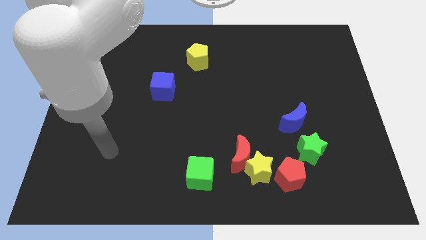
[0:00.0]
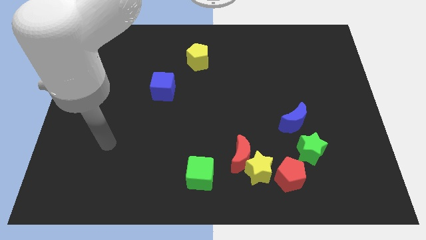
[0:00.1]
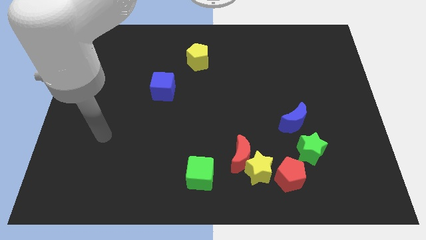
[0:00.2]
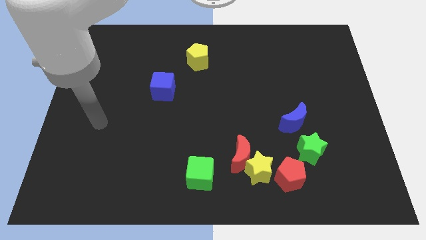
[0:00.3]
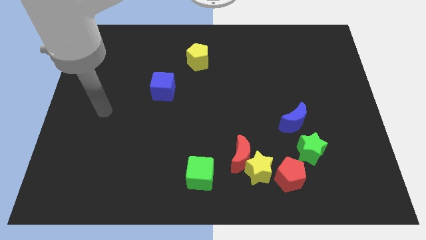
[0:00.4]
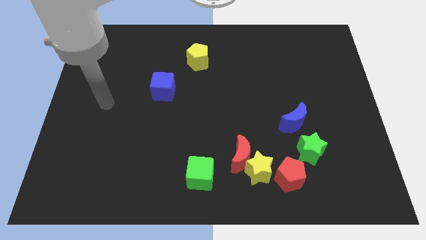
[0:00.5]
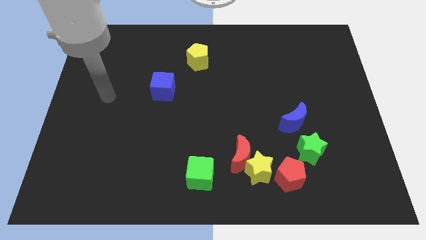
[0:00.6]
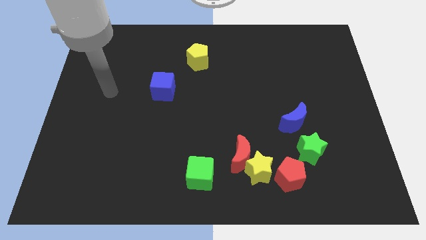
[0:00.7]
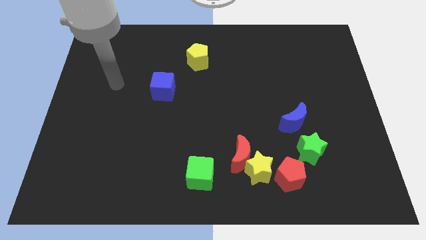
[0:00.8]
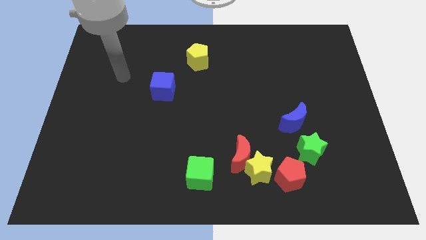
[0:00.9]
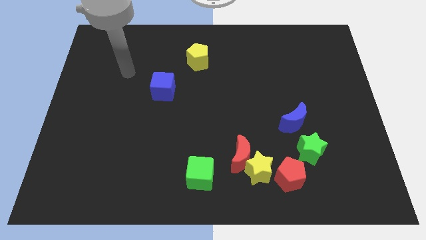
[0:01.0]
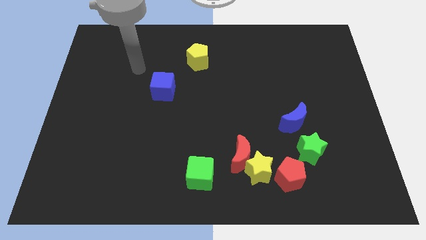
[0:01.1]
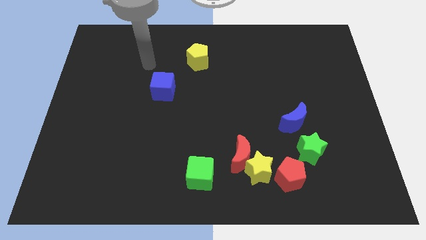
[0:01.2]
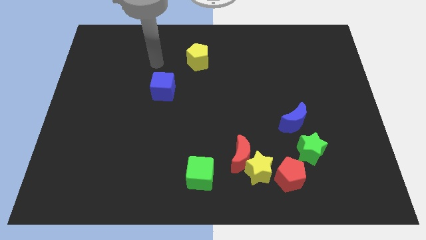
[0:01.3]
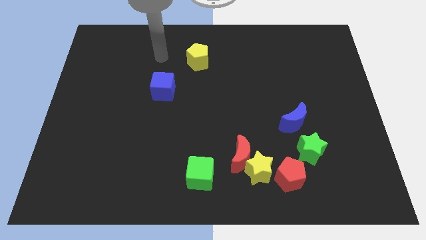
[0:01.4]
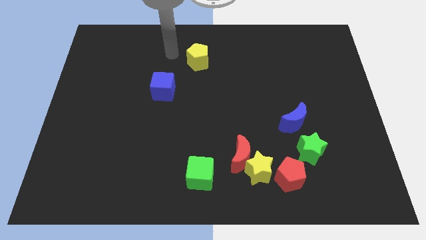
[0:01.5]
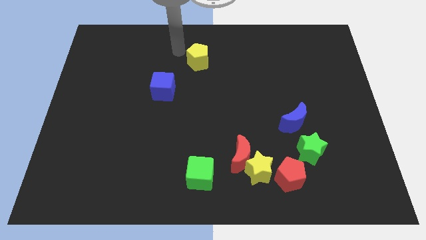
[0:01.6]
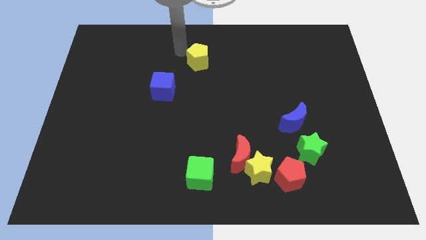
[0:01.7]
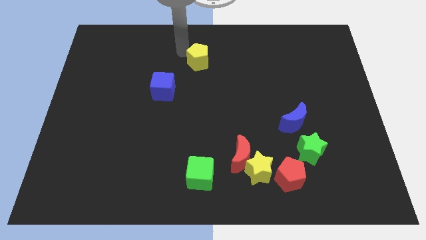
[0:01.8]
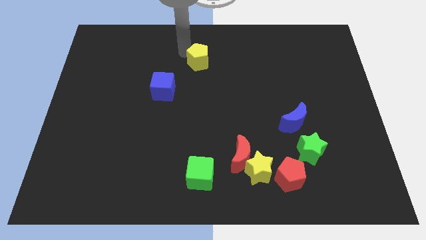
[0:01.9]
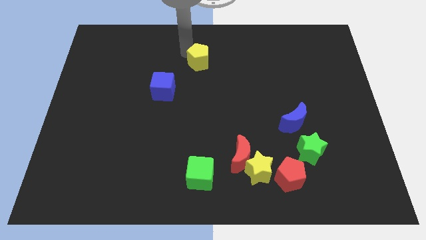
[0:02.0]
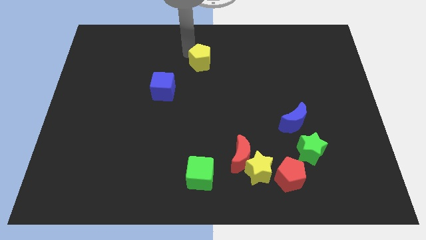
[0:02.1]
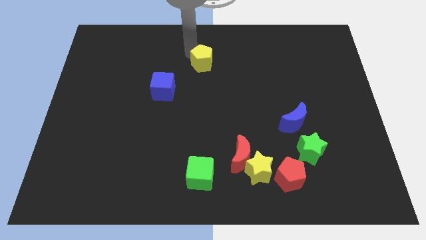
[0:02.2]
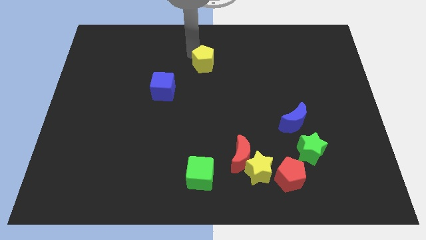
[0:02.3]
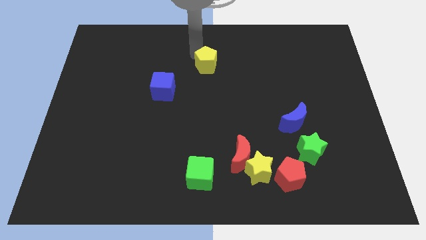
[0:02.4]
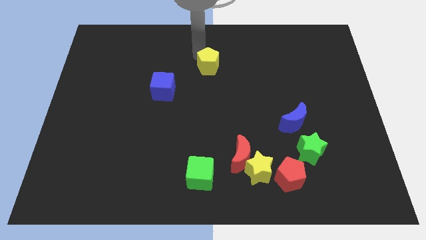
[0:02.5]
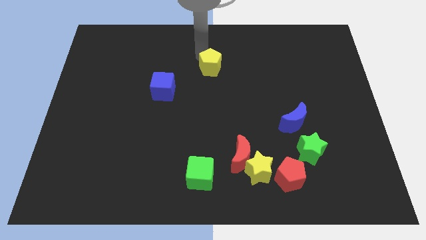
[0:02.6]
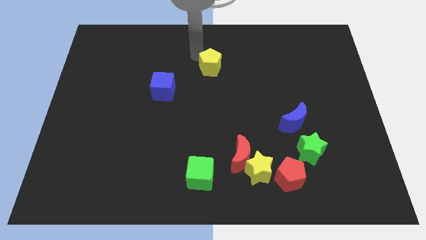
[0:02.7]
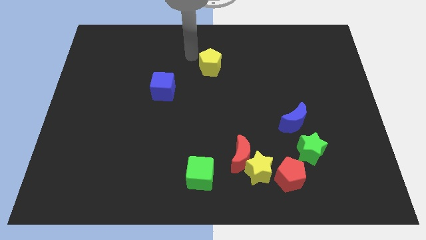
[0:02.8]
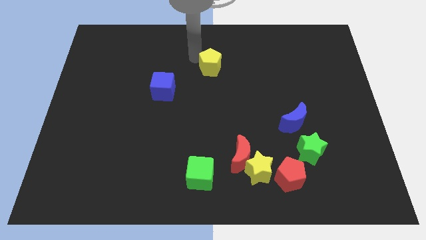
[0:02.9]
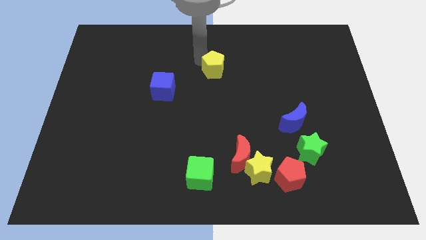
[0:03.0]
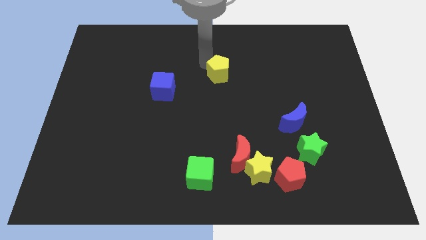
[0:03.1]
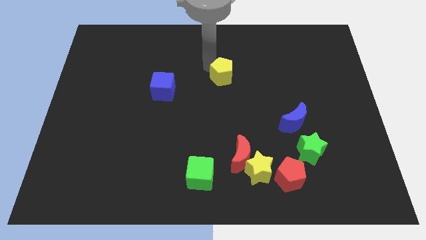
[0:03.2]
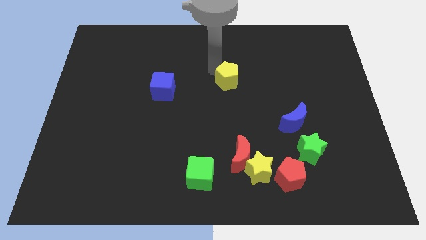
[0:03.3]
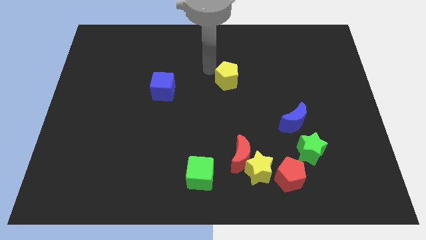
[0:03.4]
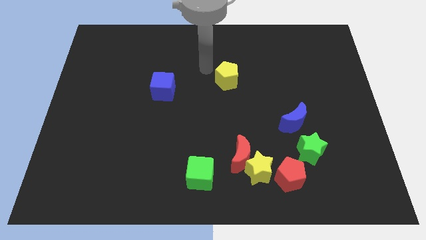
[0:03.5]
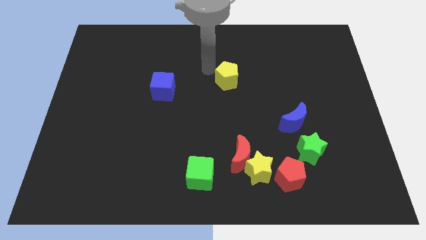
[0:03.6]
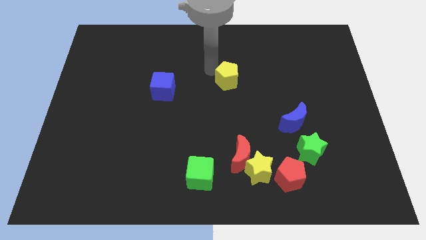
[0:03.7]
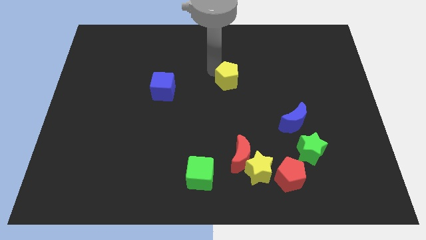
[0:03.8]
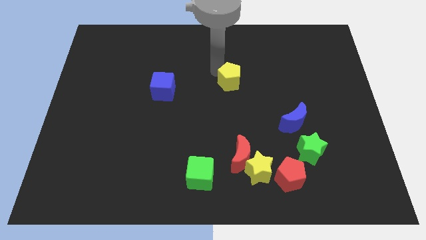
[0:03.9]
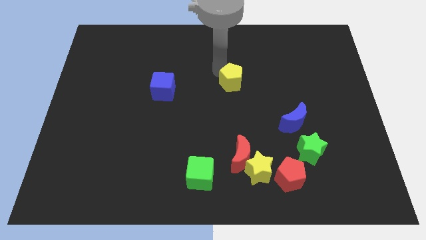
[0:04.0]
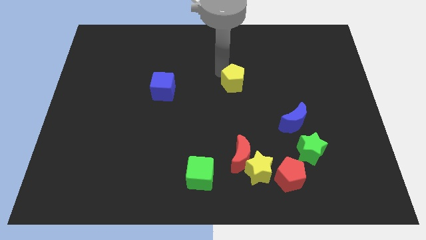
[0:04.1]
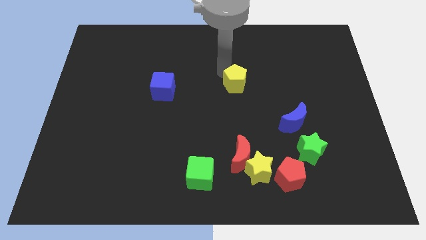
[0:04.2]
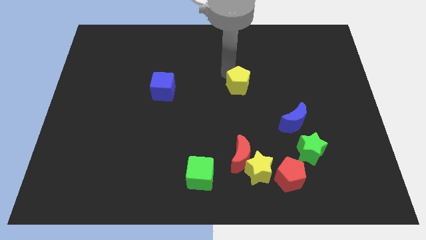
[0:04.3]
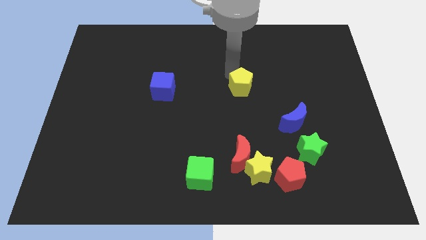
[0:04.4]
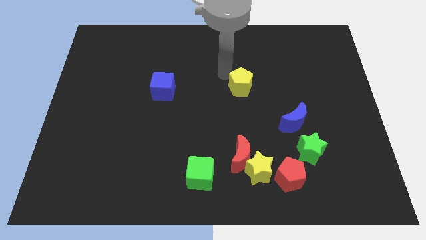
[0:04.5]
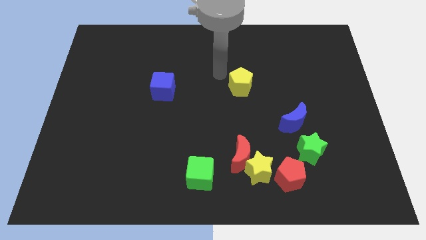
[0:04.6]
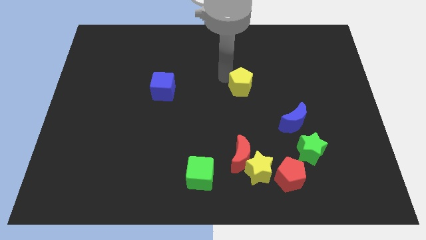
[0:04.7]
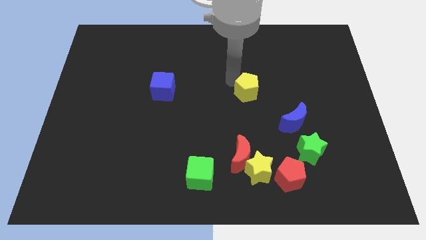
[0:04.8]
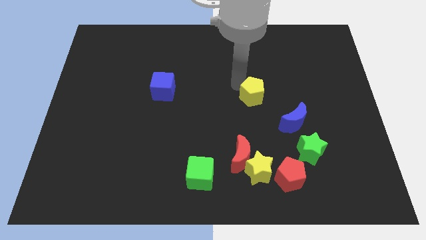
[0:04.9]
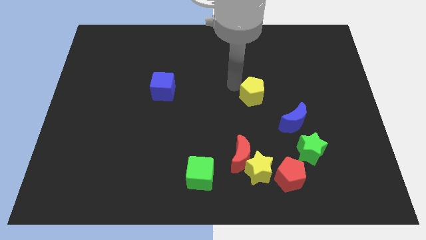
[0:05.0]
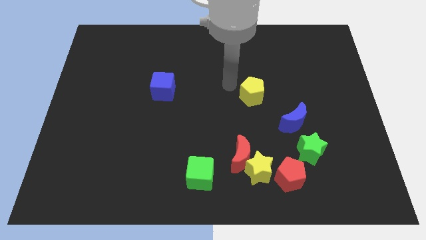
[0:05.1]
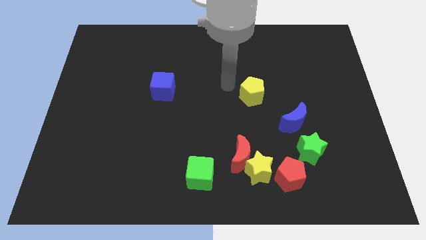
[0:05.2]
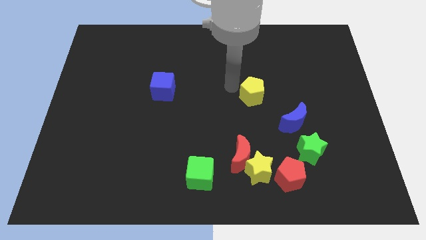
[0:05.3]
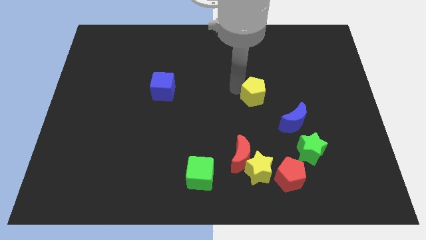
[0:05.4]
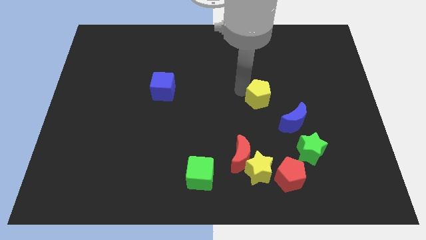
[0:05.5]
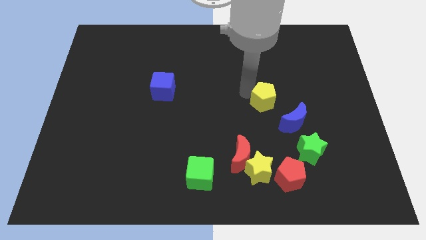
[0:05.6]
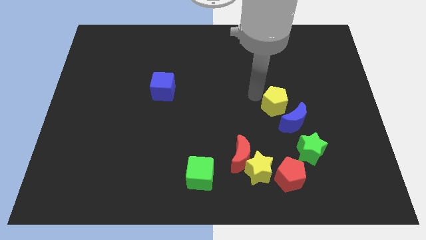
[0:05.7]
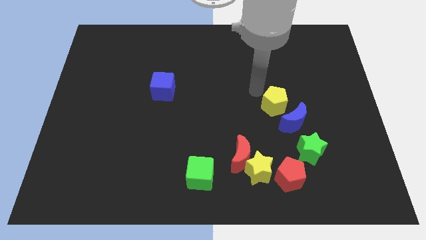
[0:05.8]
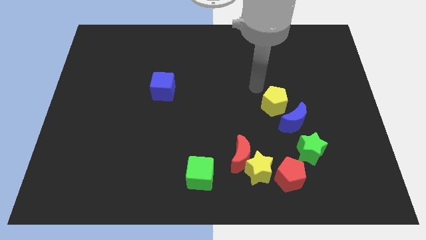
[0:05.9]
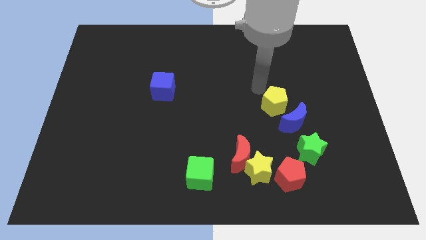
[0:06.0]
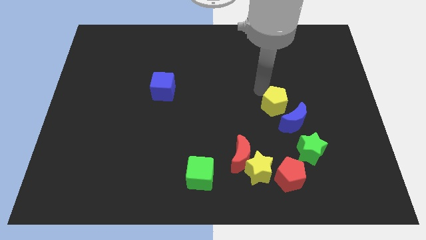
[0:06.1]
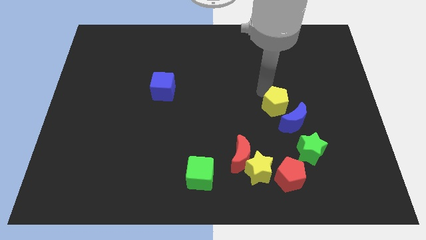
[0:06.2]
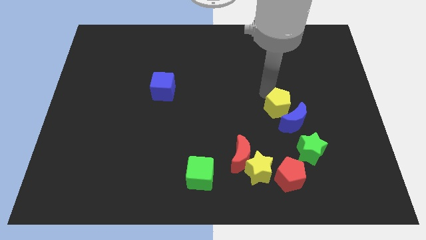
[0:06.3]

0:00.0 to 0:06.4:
put the yellow pentagon close to the blue moon

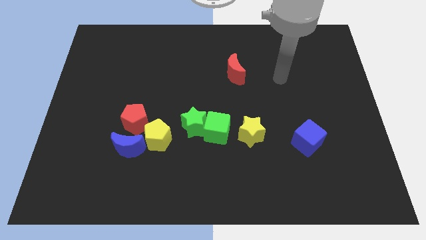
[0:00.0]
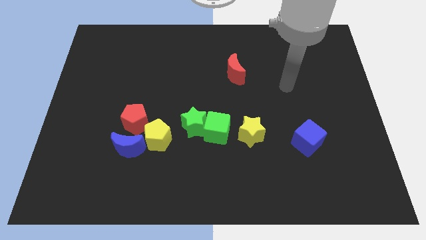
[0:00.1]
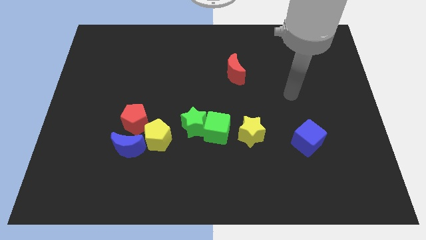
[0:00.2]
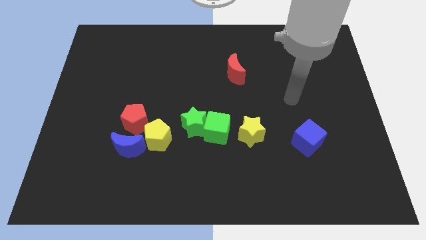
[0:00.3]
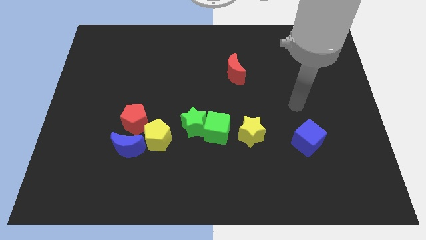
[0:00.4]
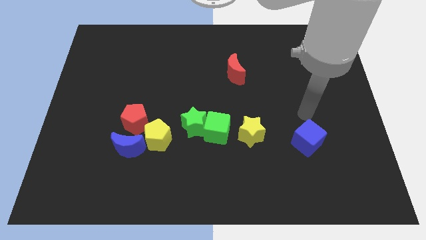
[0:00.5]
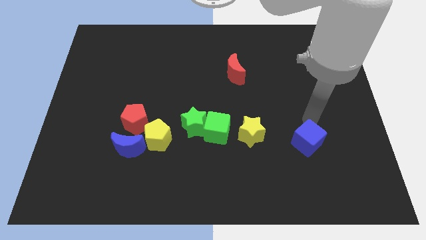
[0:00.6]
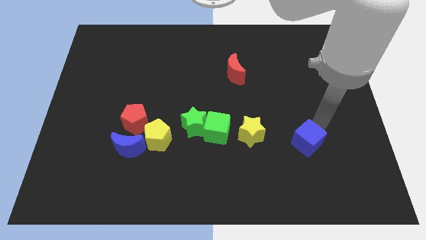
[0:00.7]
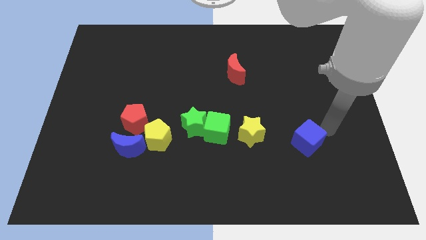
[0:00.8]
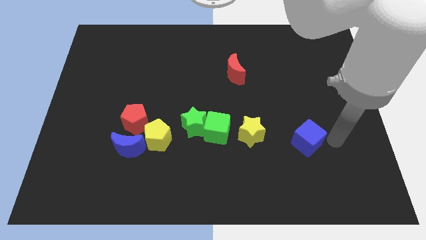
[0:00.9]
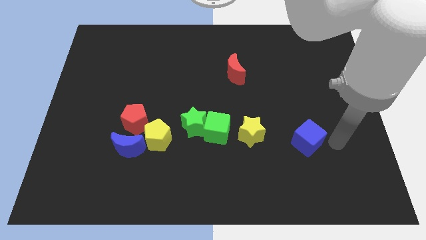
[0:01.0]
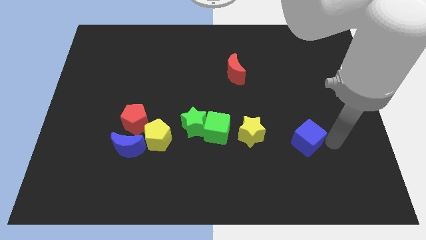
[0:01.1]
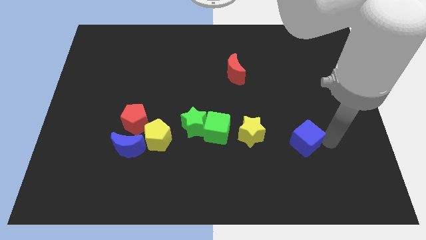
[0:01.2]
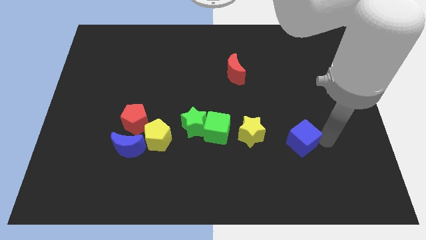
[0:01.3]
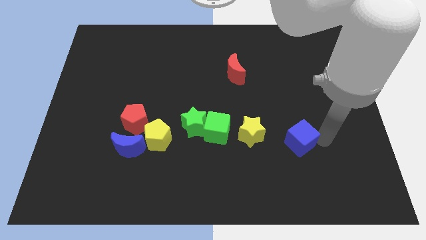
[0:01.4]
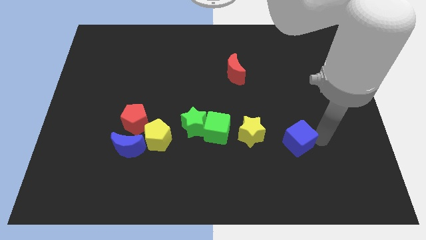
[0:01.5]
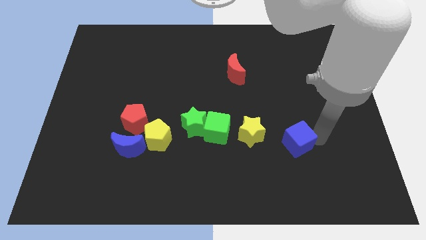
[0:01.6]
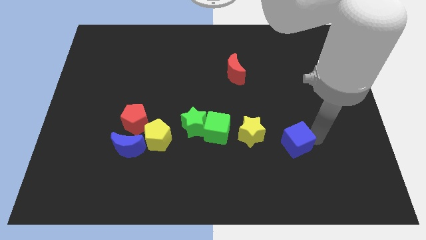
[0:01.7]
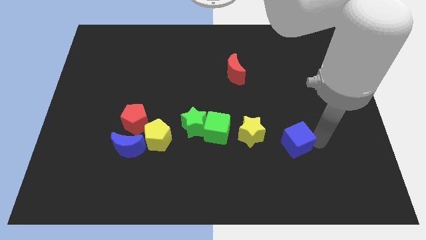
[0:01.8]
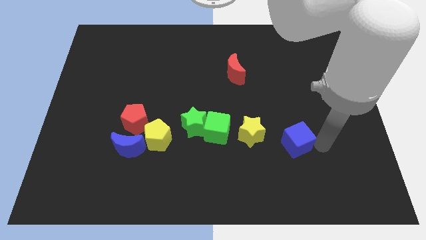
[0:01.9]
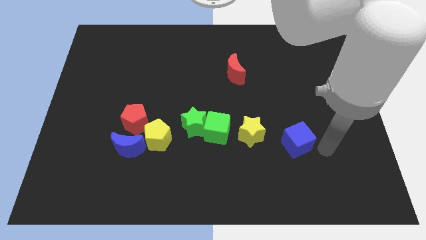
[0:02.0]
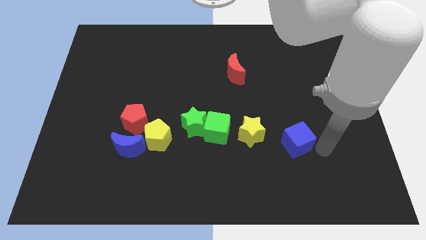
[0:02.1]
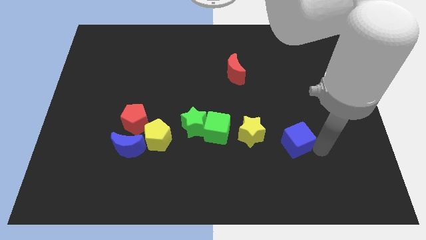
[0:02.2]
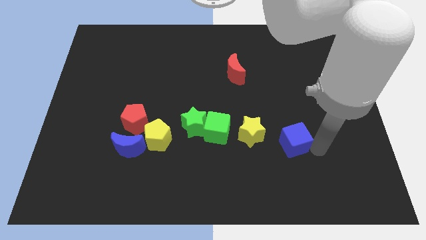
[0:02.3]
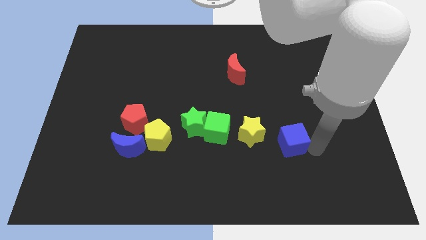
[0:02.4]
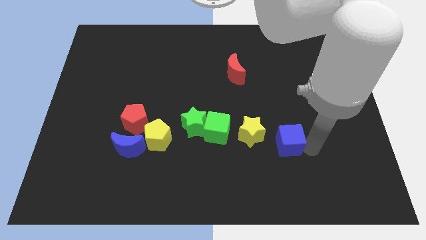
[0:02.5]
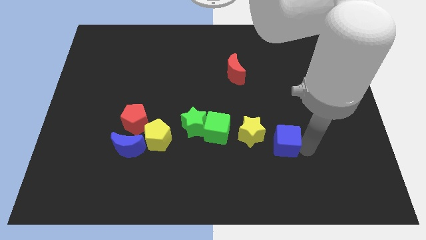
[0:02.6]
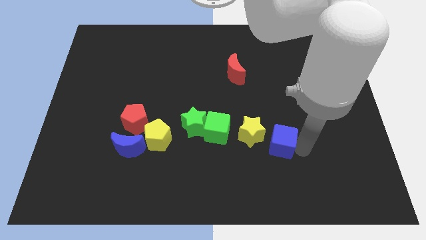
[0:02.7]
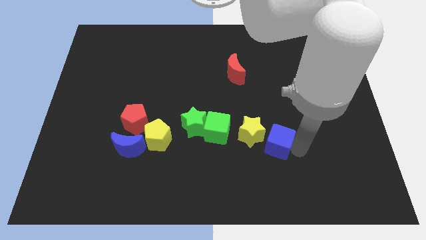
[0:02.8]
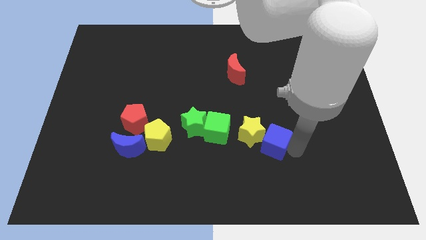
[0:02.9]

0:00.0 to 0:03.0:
move the blue cube next to the yellow star
